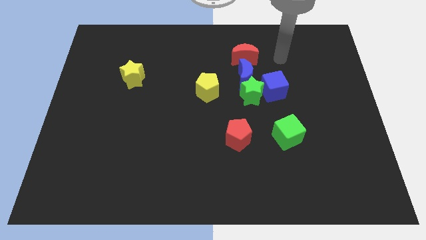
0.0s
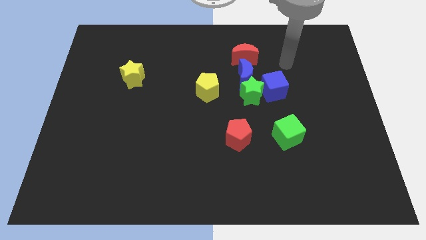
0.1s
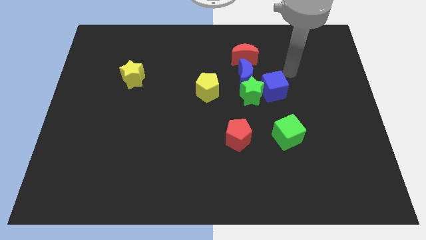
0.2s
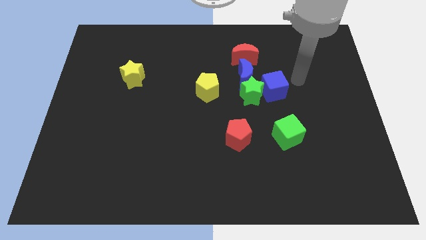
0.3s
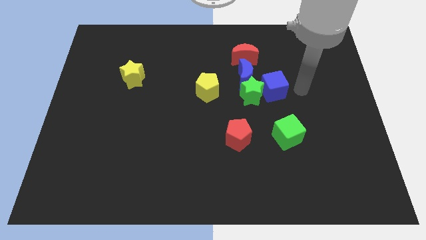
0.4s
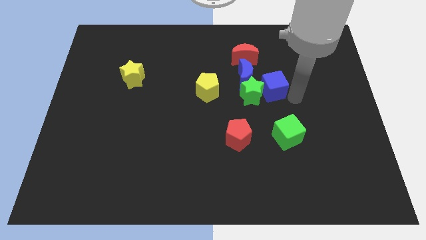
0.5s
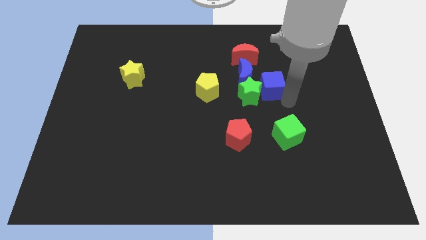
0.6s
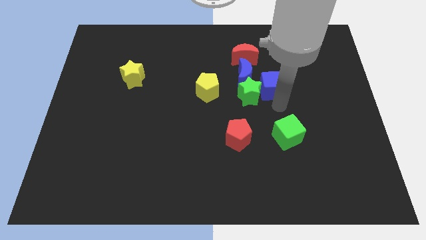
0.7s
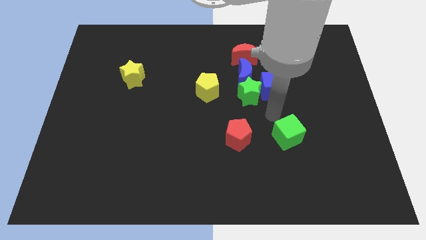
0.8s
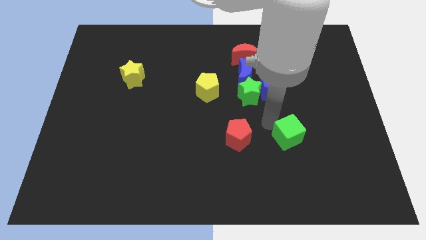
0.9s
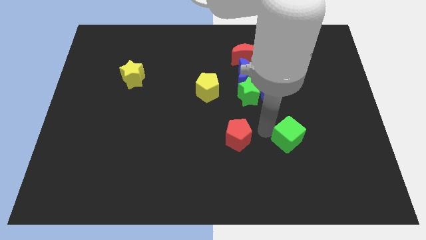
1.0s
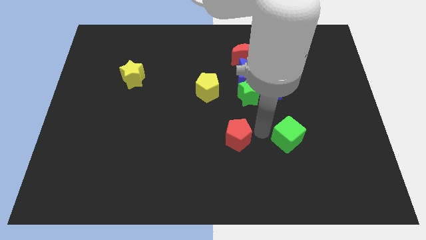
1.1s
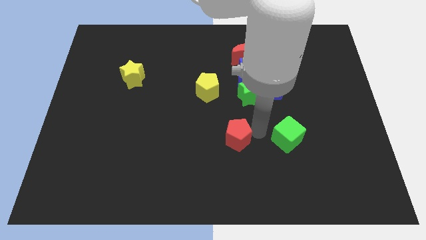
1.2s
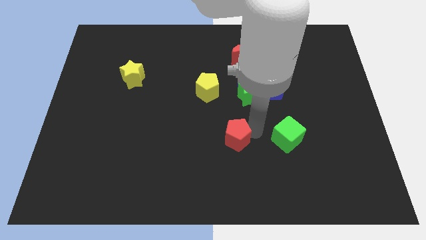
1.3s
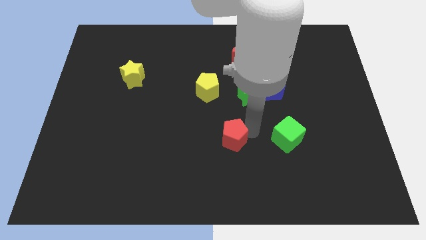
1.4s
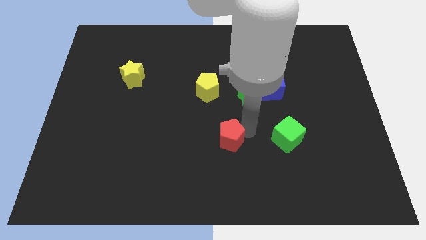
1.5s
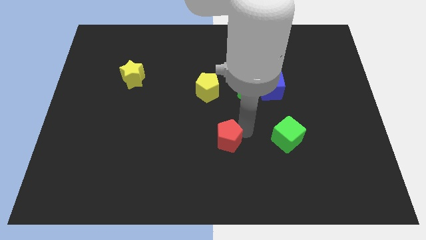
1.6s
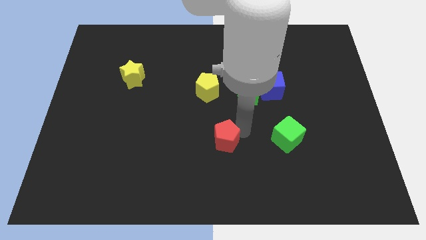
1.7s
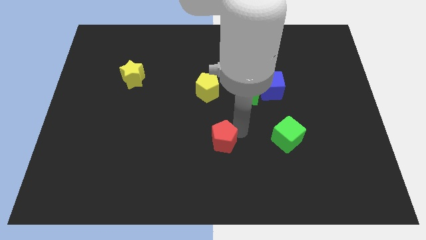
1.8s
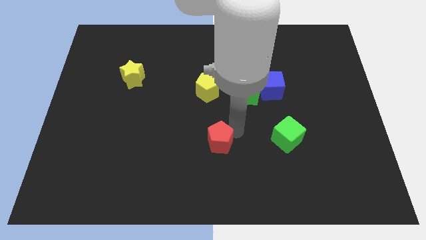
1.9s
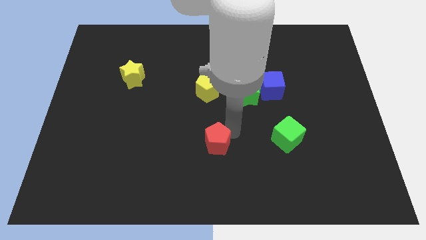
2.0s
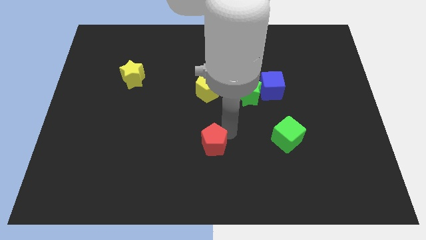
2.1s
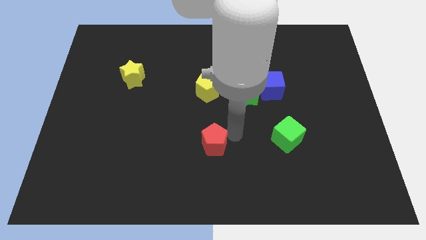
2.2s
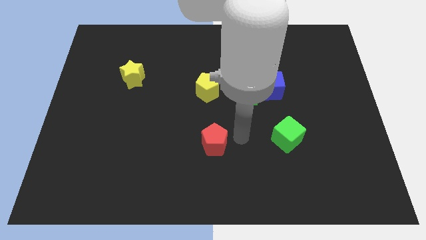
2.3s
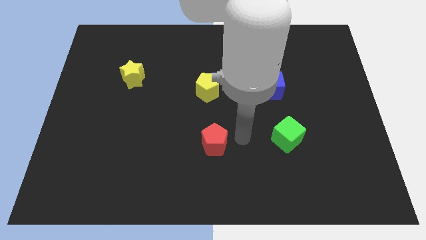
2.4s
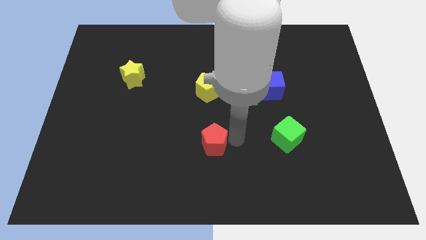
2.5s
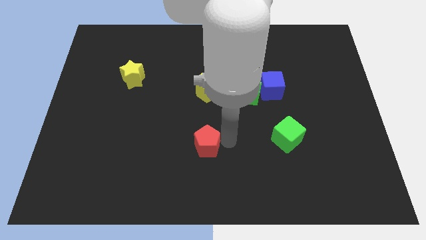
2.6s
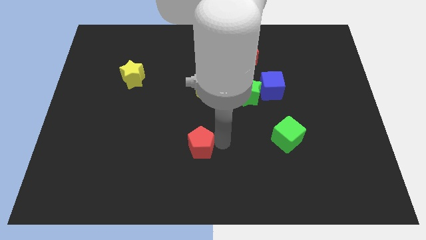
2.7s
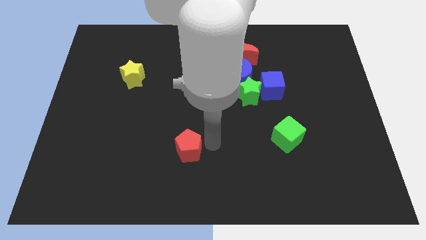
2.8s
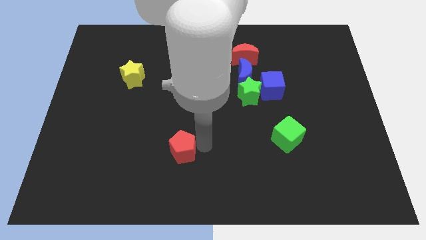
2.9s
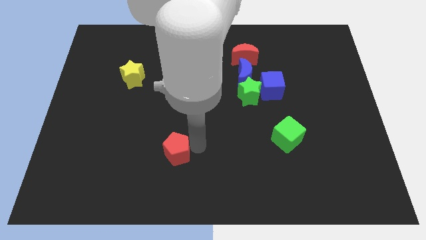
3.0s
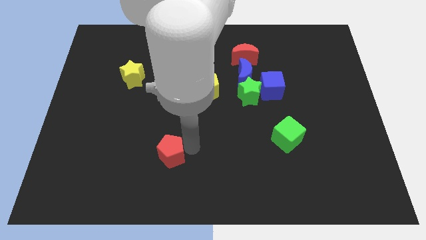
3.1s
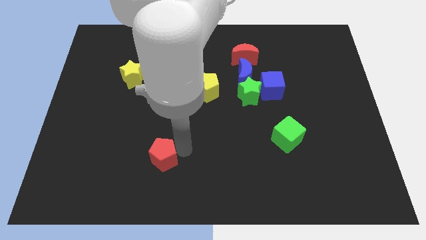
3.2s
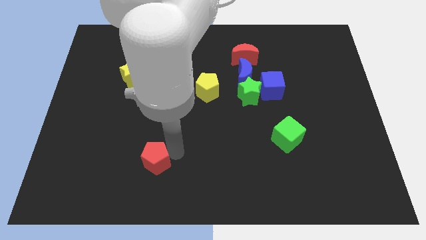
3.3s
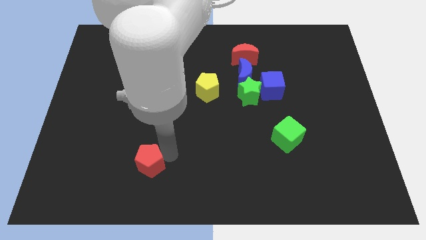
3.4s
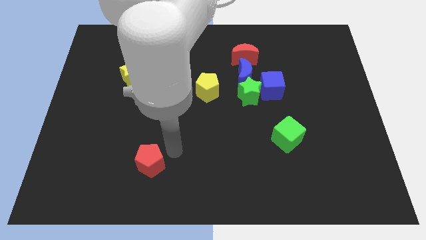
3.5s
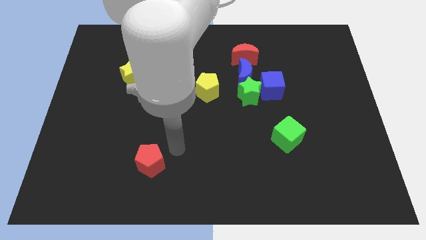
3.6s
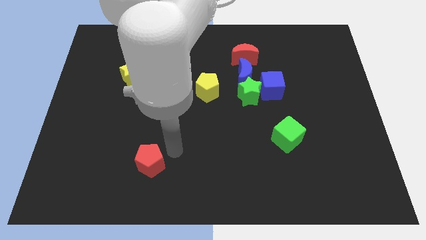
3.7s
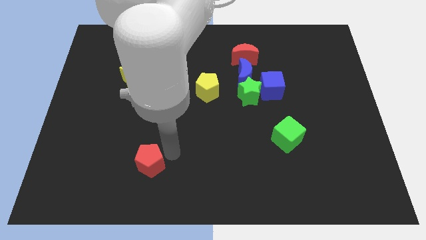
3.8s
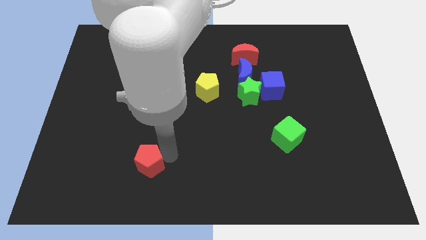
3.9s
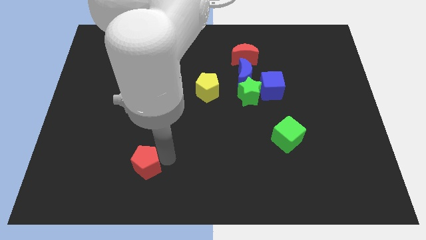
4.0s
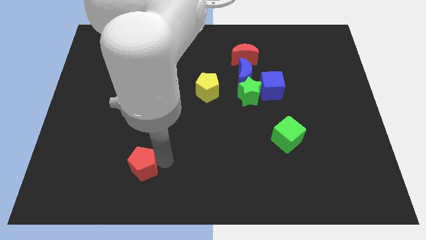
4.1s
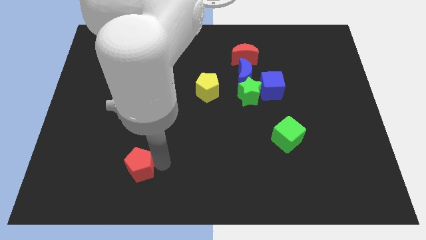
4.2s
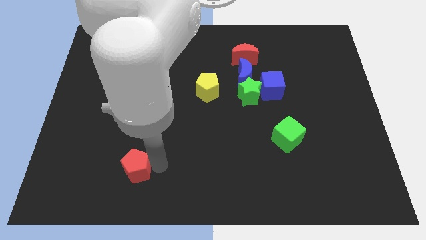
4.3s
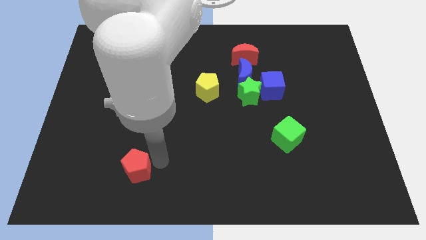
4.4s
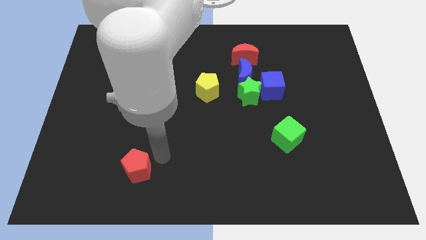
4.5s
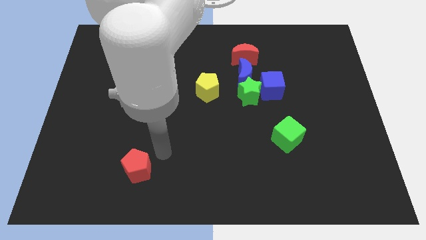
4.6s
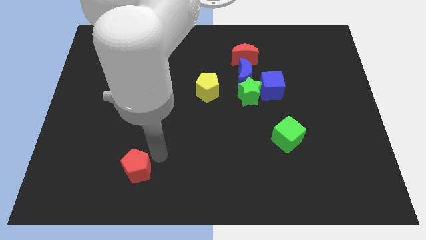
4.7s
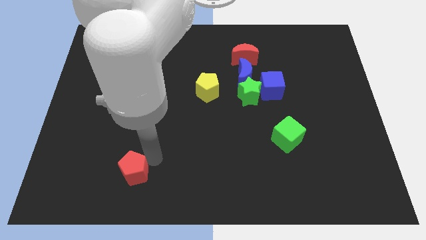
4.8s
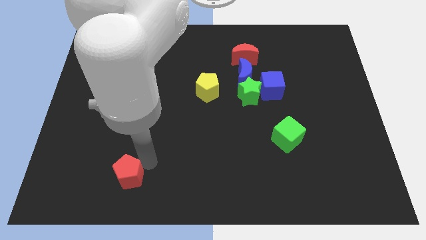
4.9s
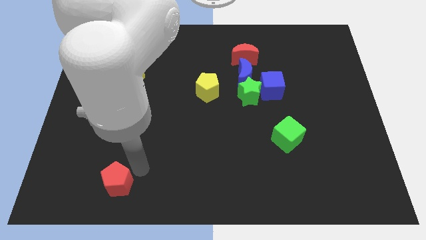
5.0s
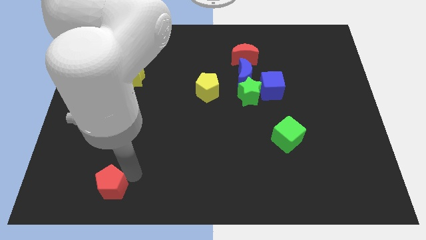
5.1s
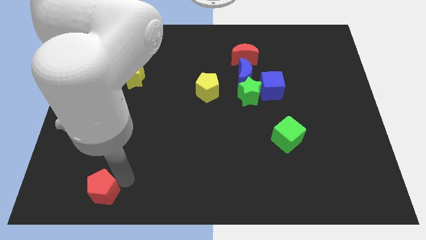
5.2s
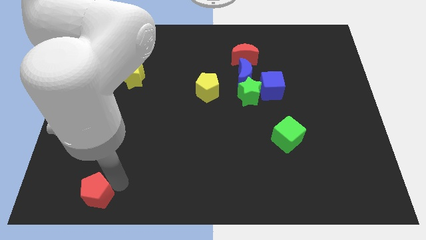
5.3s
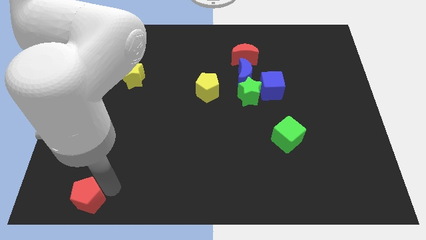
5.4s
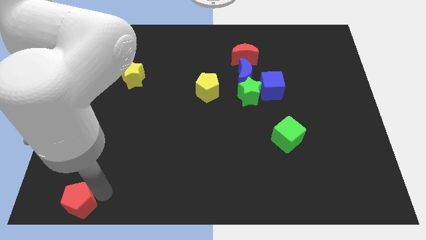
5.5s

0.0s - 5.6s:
put the red pentagon to the bottom left
